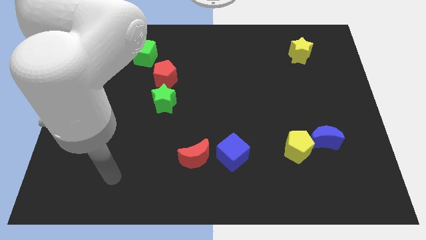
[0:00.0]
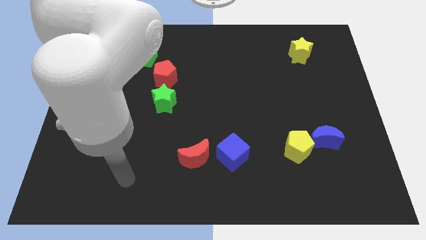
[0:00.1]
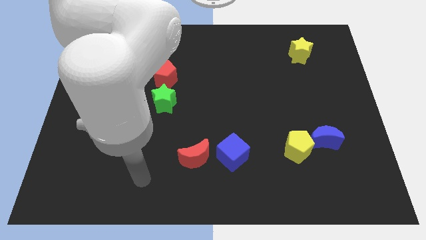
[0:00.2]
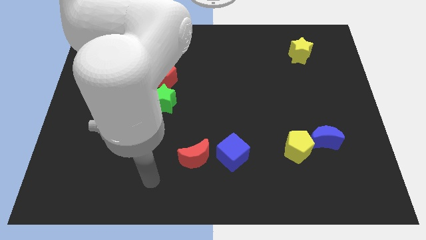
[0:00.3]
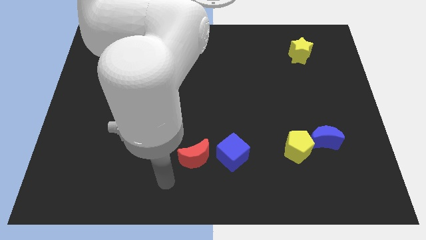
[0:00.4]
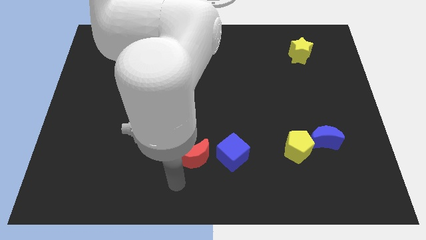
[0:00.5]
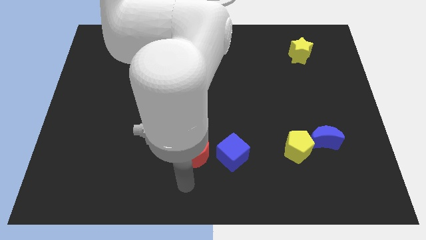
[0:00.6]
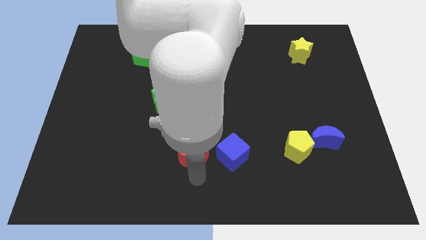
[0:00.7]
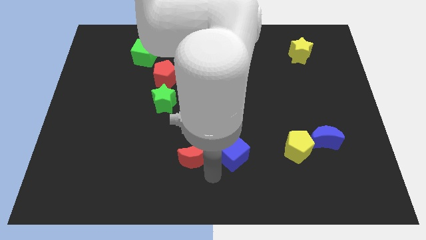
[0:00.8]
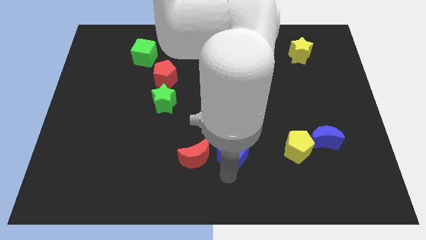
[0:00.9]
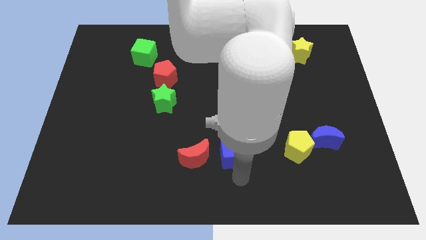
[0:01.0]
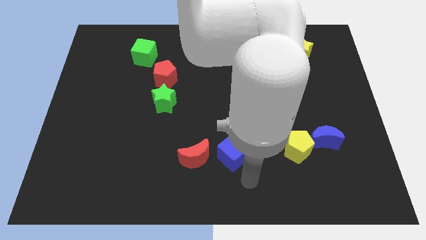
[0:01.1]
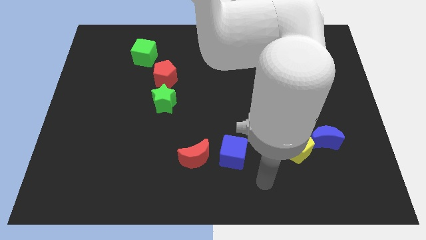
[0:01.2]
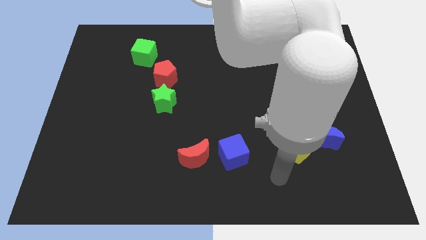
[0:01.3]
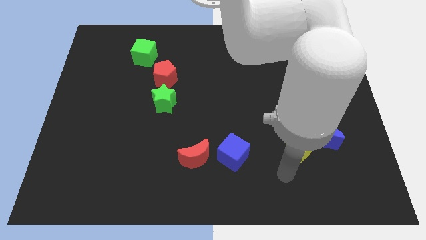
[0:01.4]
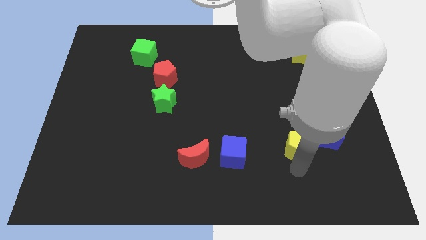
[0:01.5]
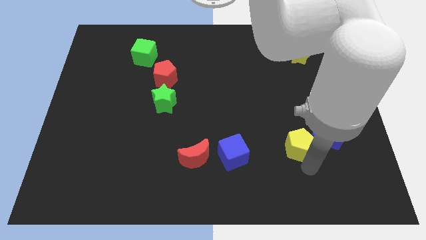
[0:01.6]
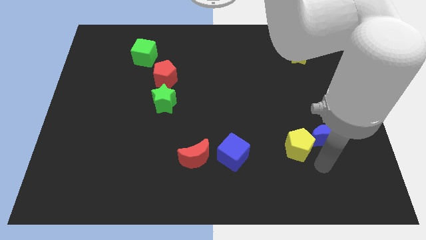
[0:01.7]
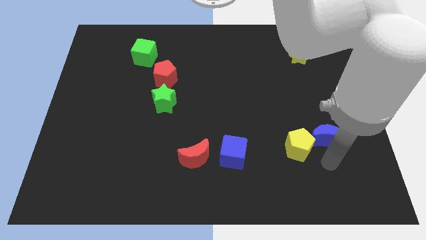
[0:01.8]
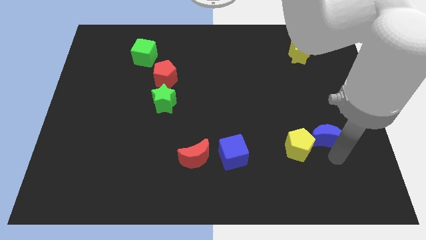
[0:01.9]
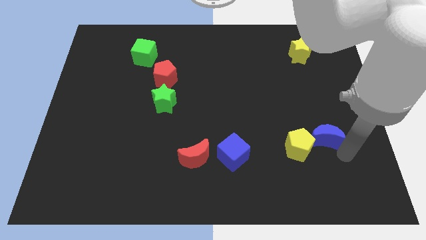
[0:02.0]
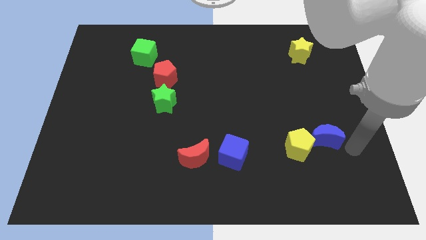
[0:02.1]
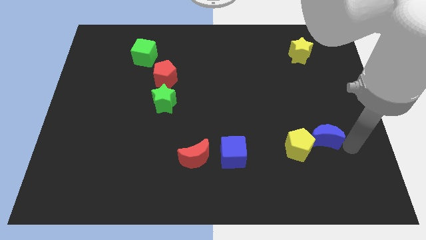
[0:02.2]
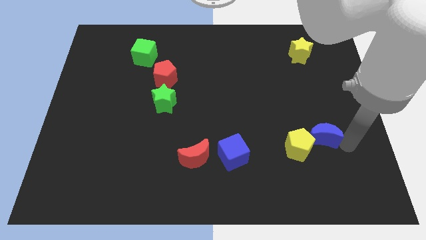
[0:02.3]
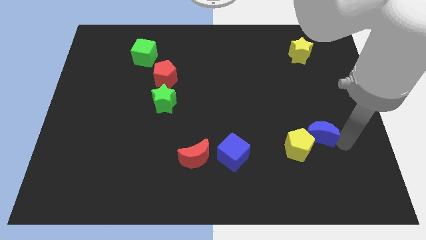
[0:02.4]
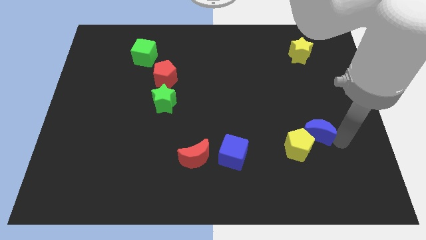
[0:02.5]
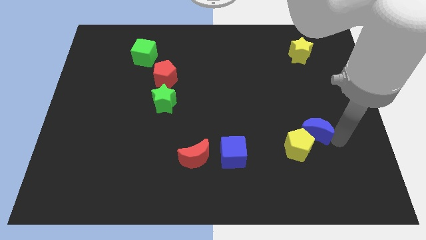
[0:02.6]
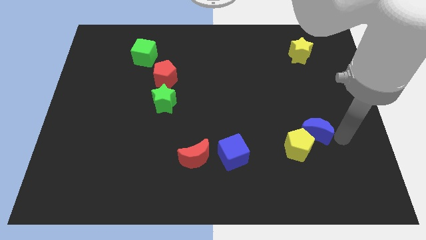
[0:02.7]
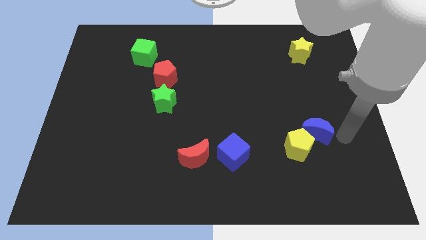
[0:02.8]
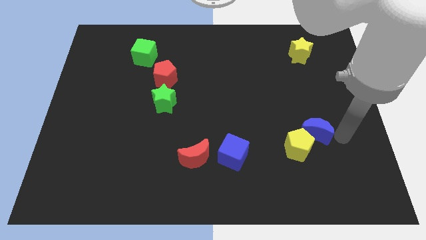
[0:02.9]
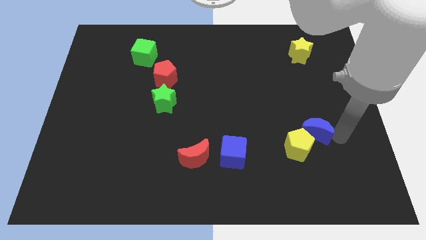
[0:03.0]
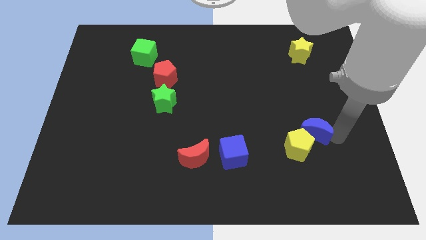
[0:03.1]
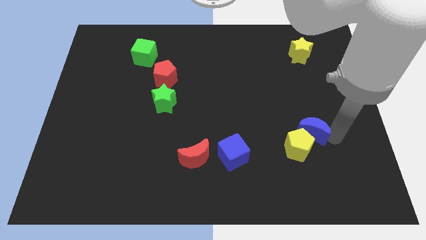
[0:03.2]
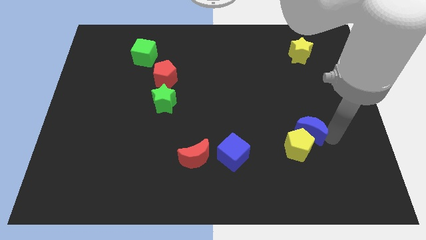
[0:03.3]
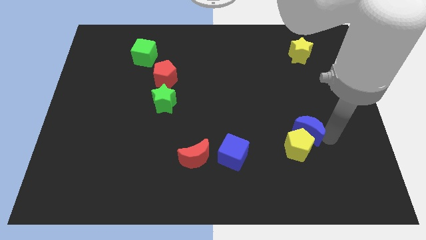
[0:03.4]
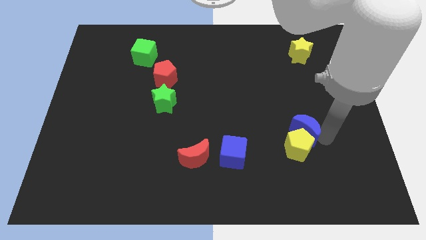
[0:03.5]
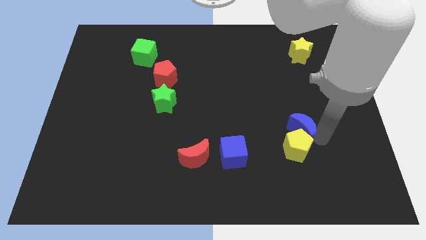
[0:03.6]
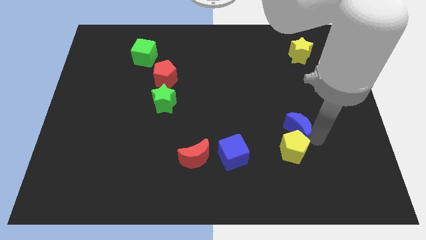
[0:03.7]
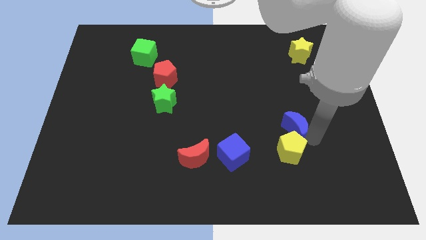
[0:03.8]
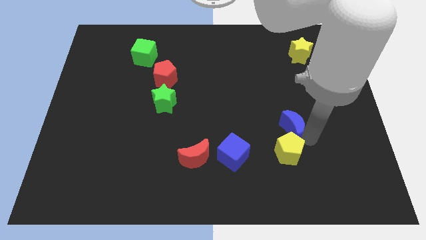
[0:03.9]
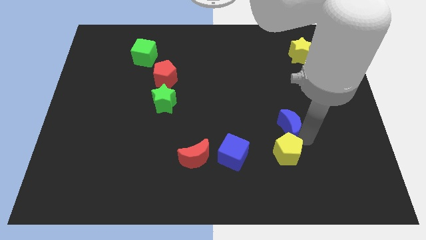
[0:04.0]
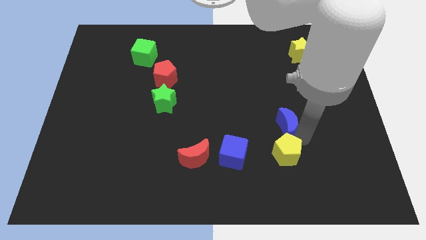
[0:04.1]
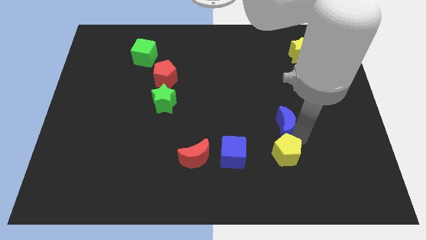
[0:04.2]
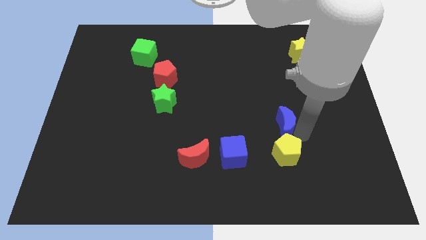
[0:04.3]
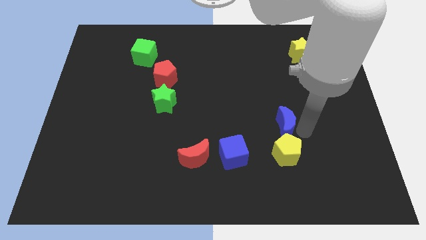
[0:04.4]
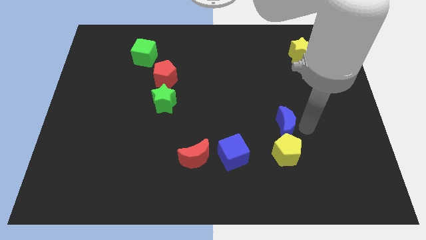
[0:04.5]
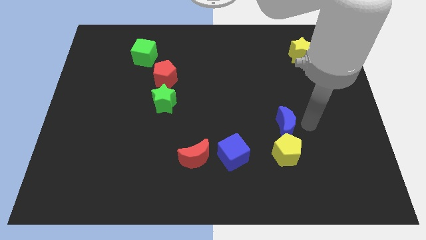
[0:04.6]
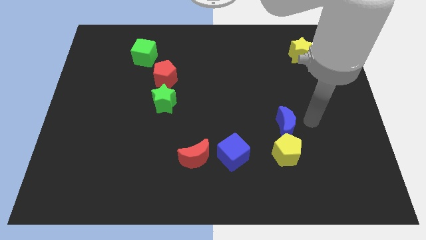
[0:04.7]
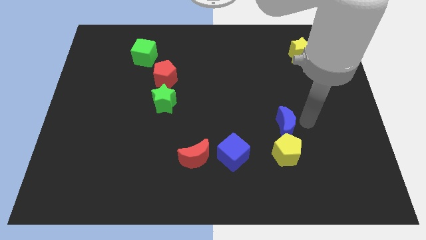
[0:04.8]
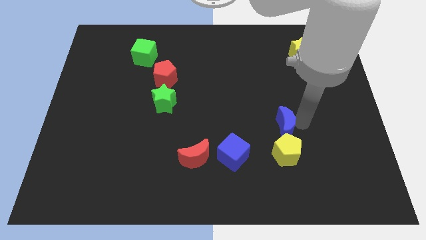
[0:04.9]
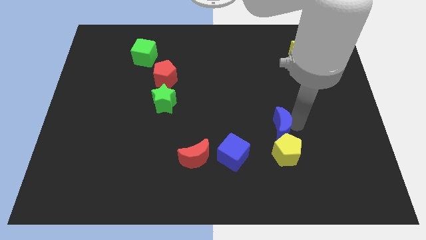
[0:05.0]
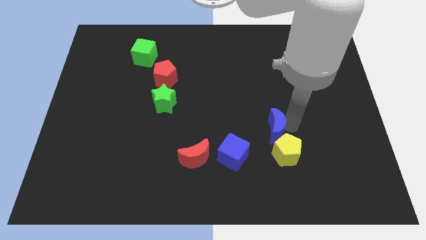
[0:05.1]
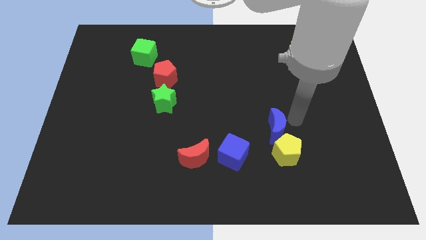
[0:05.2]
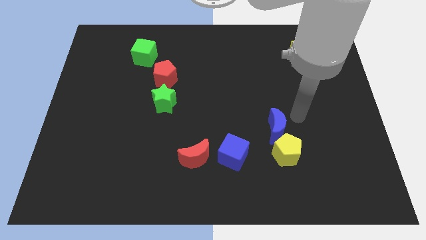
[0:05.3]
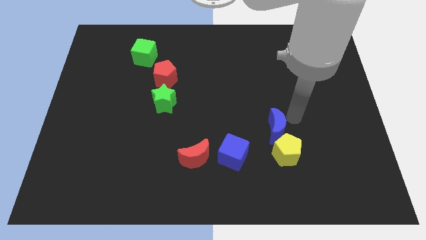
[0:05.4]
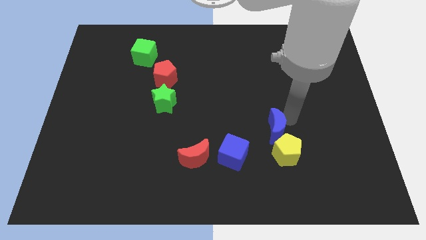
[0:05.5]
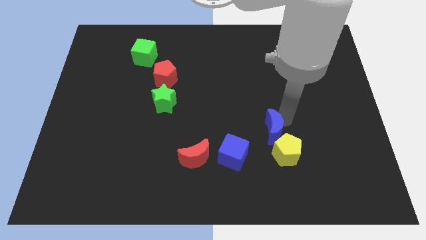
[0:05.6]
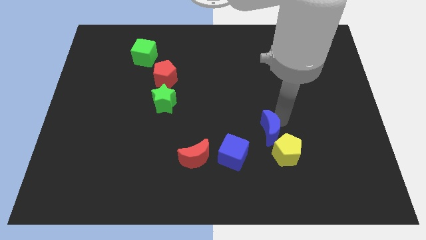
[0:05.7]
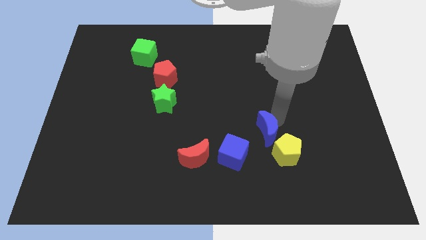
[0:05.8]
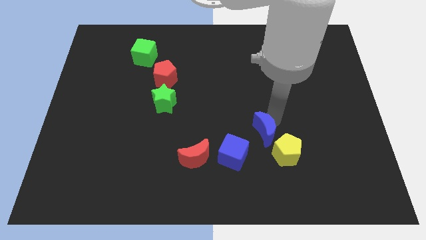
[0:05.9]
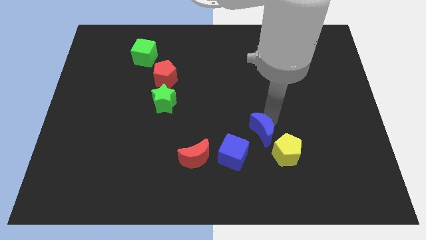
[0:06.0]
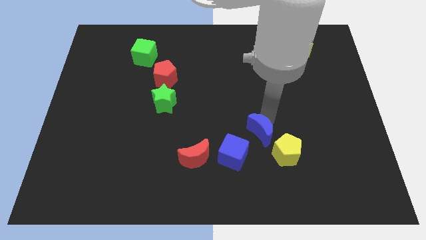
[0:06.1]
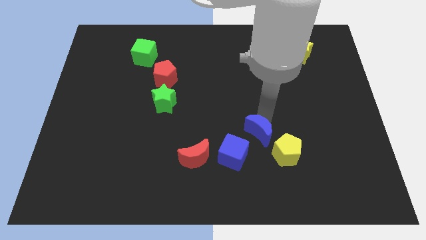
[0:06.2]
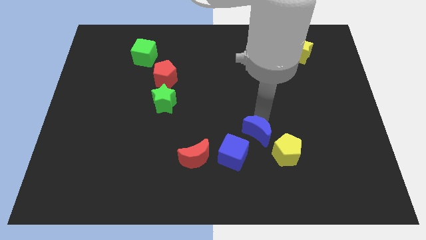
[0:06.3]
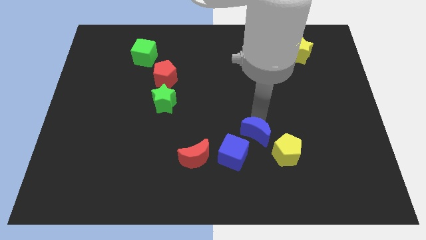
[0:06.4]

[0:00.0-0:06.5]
move the blue moon to the left of the yellow pentagon
